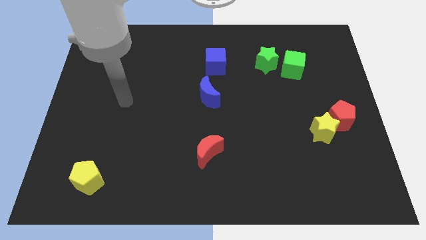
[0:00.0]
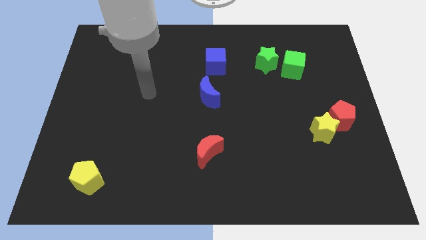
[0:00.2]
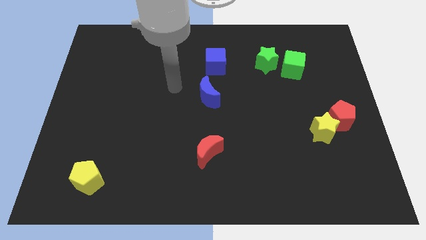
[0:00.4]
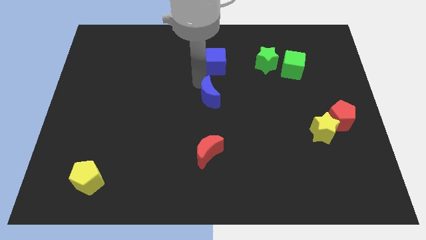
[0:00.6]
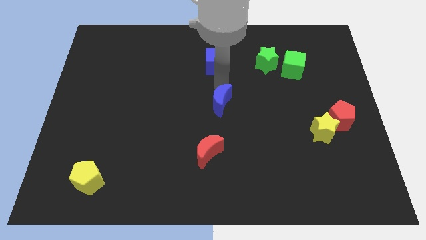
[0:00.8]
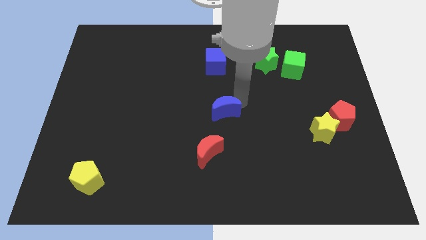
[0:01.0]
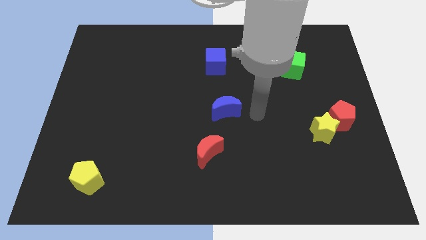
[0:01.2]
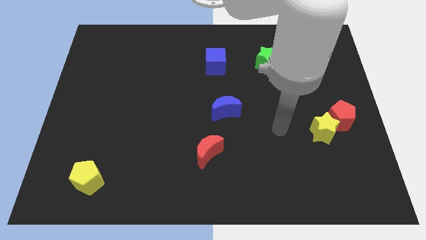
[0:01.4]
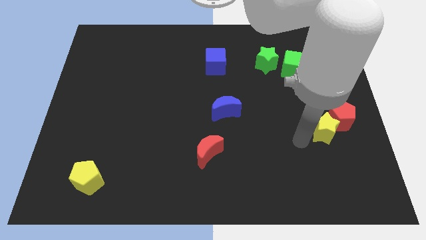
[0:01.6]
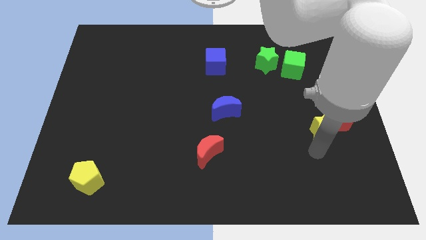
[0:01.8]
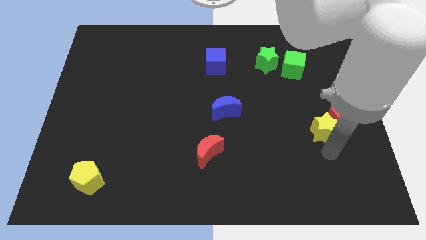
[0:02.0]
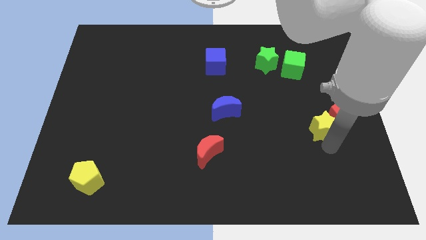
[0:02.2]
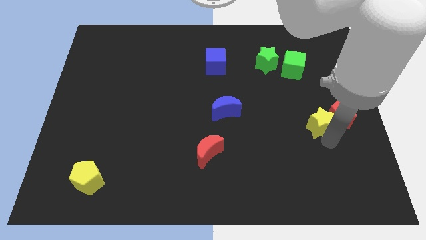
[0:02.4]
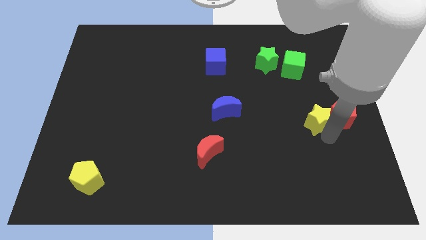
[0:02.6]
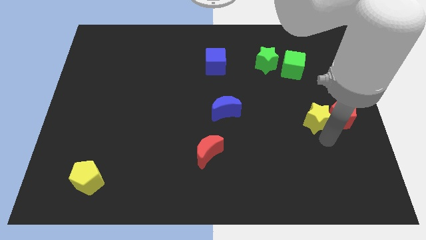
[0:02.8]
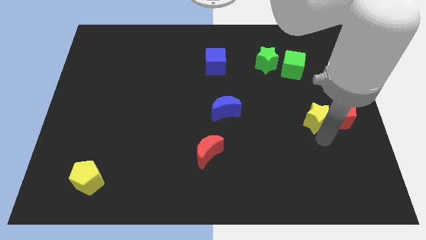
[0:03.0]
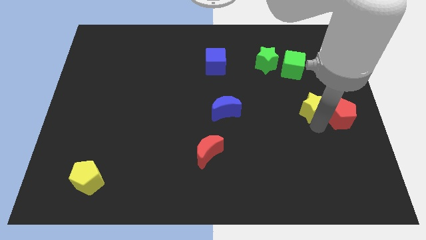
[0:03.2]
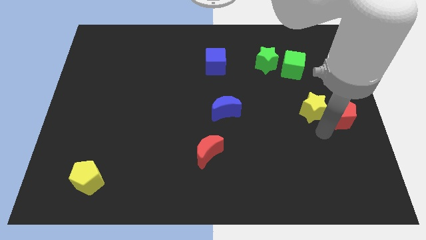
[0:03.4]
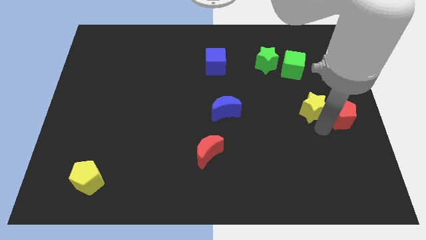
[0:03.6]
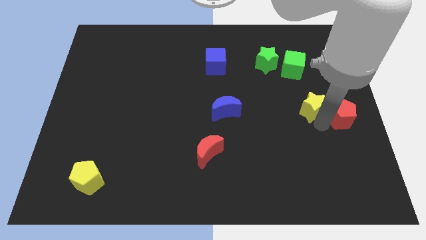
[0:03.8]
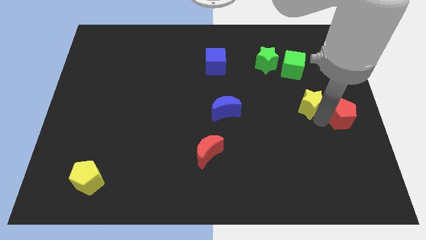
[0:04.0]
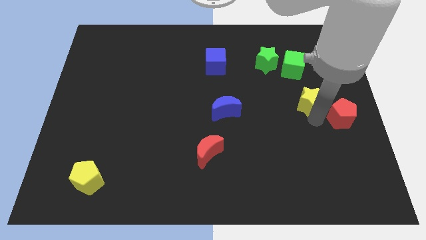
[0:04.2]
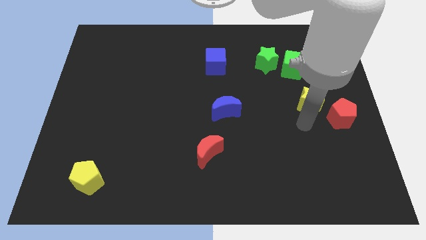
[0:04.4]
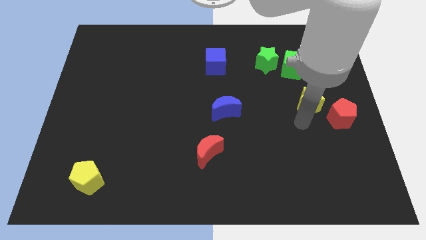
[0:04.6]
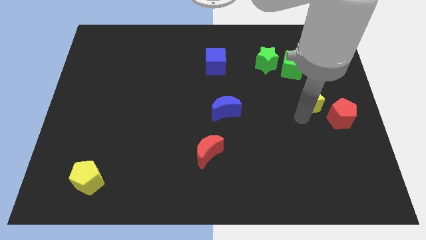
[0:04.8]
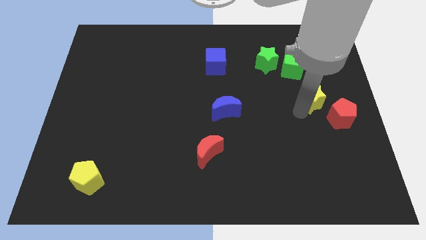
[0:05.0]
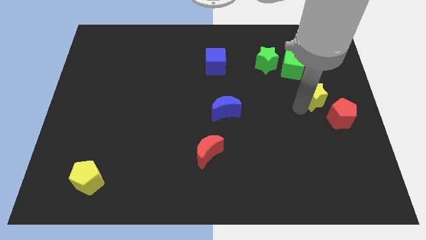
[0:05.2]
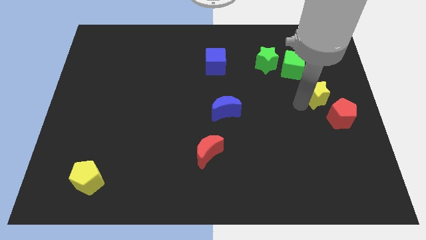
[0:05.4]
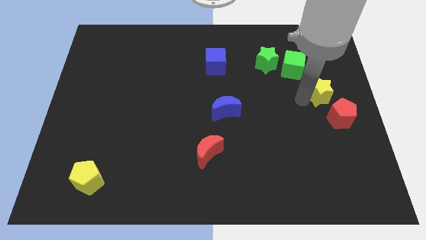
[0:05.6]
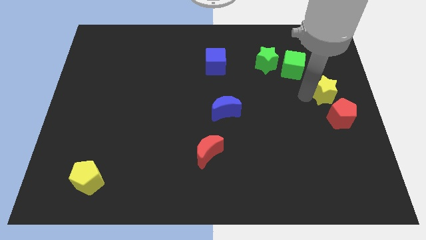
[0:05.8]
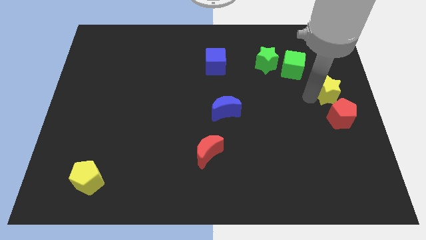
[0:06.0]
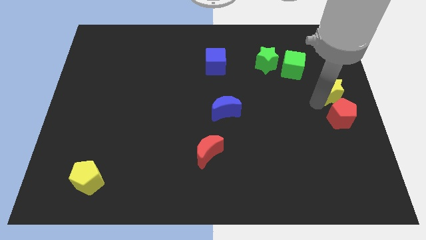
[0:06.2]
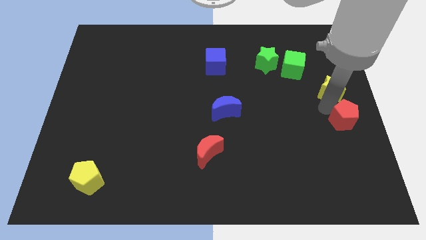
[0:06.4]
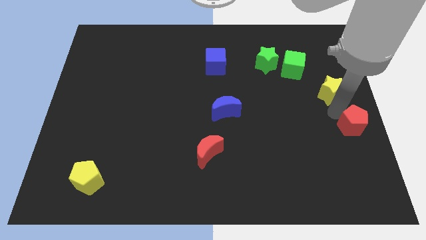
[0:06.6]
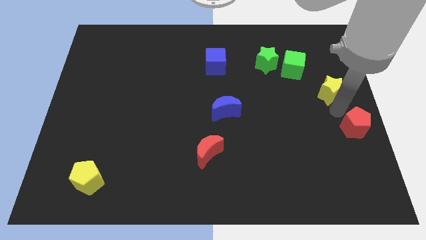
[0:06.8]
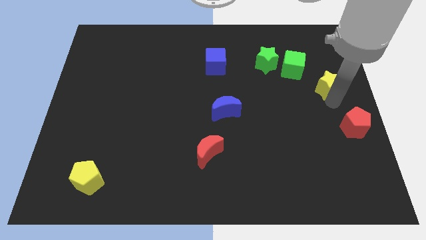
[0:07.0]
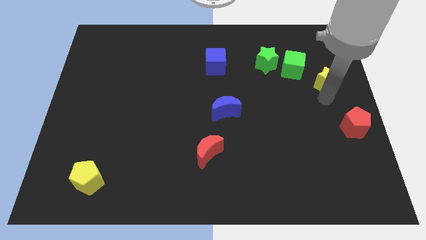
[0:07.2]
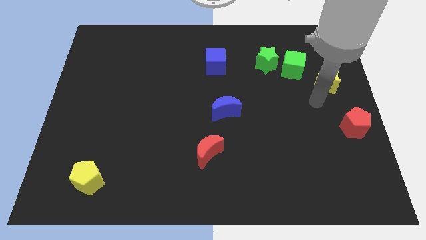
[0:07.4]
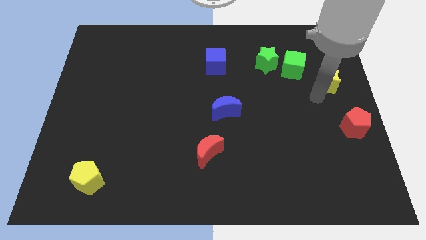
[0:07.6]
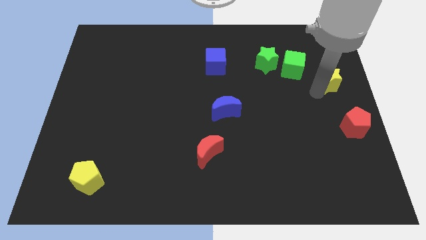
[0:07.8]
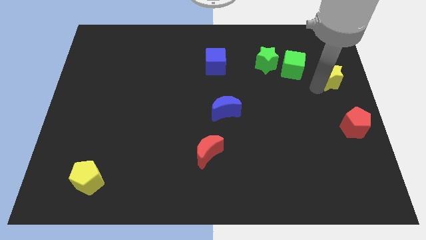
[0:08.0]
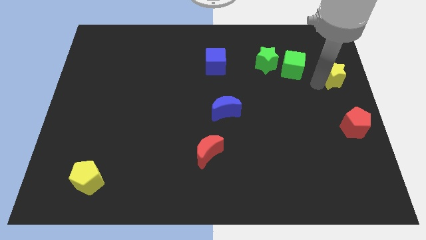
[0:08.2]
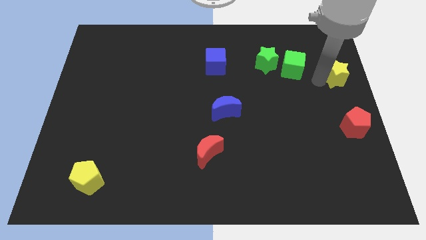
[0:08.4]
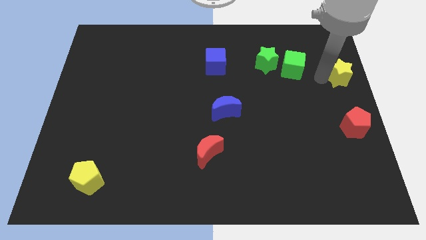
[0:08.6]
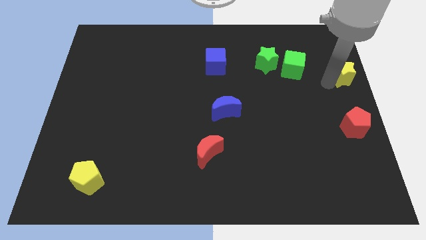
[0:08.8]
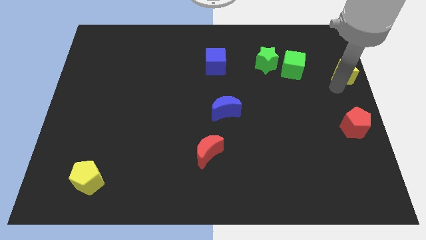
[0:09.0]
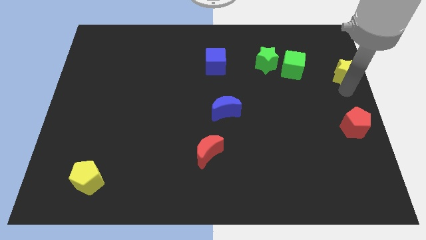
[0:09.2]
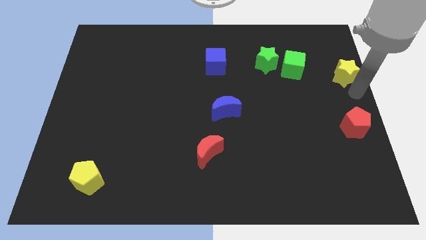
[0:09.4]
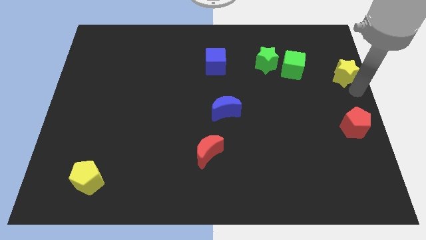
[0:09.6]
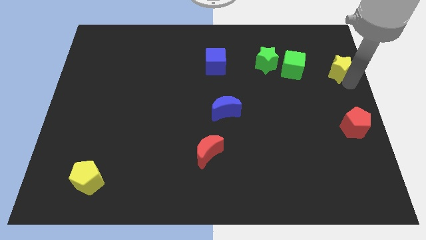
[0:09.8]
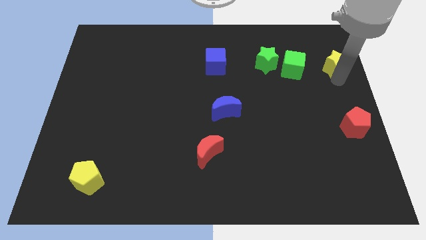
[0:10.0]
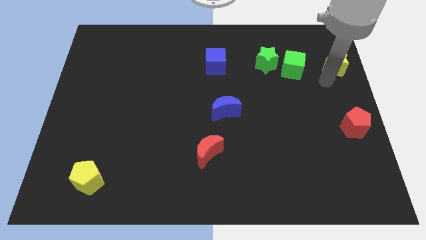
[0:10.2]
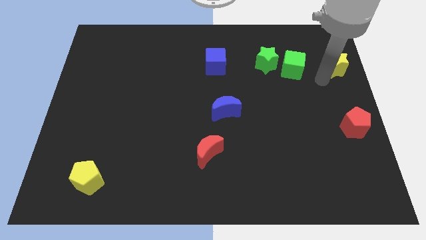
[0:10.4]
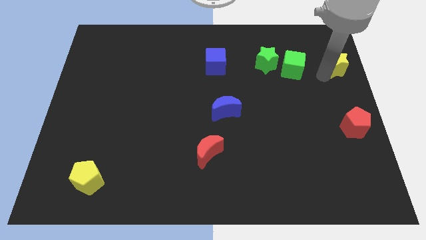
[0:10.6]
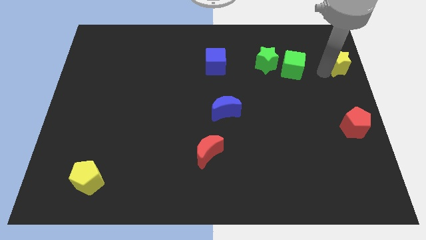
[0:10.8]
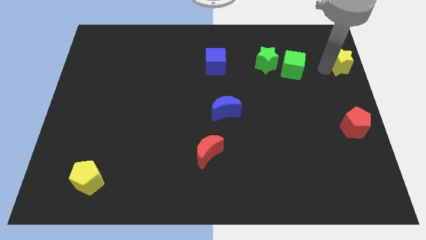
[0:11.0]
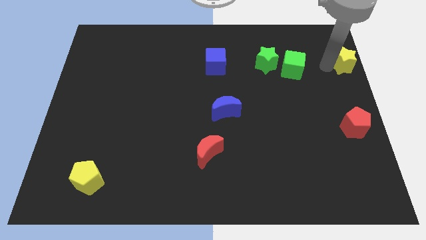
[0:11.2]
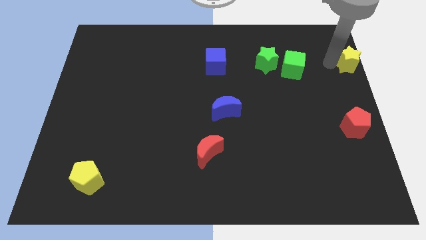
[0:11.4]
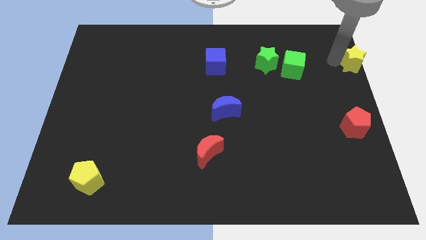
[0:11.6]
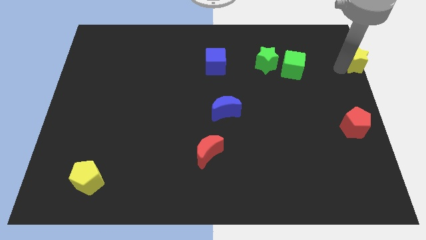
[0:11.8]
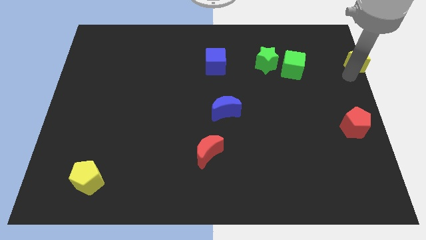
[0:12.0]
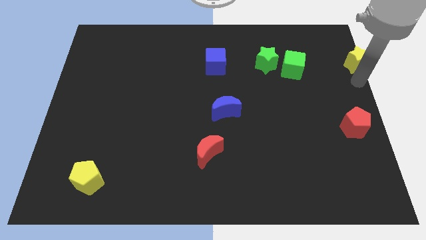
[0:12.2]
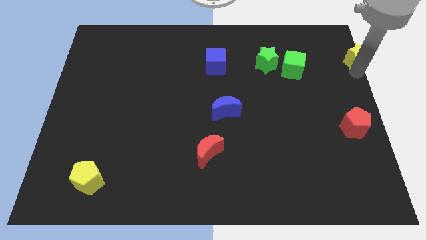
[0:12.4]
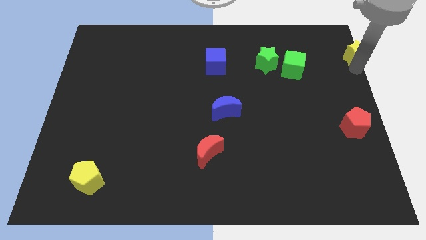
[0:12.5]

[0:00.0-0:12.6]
slide the yellow star to the top right

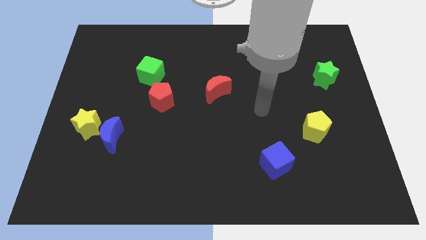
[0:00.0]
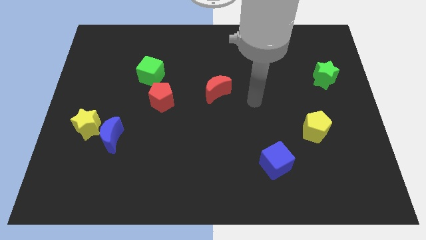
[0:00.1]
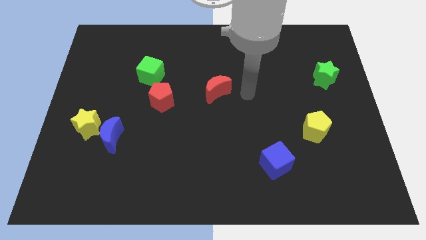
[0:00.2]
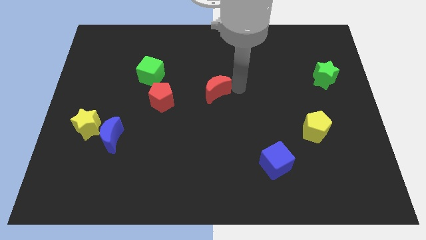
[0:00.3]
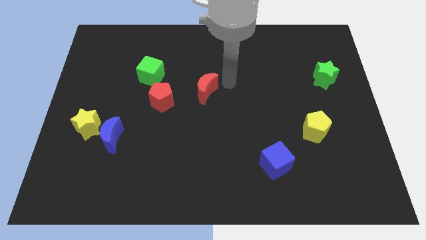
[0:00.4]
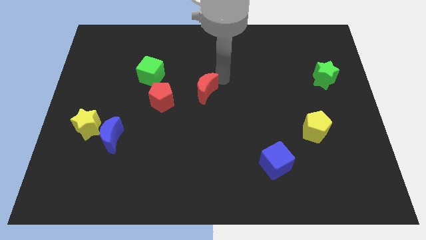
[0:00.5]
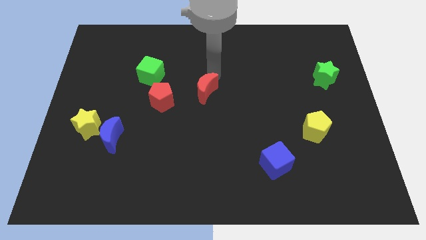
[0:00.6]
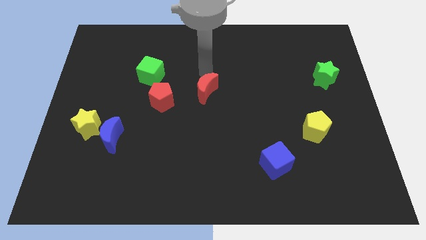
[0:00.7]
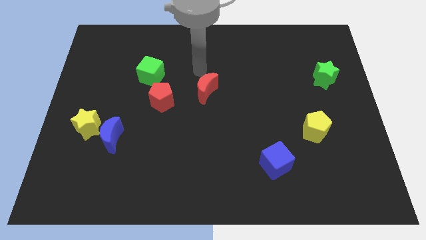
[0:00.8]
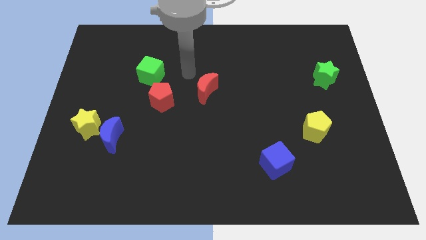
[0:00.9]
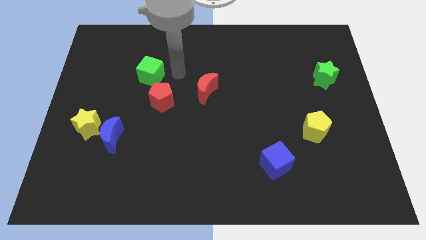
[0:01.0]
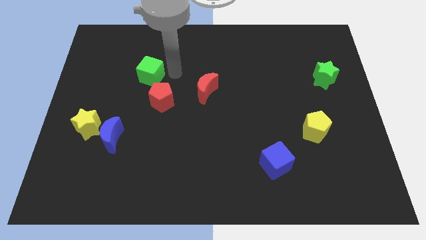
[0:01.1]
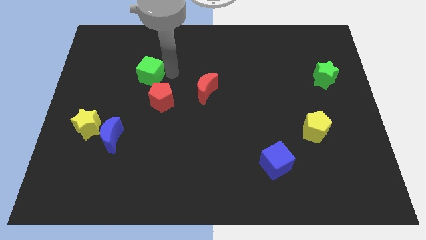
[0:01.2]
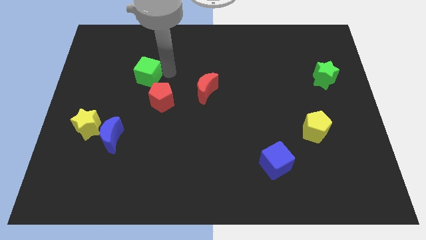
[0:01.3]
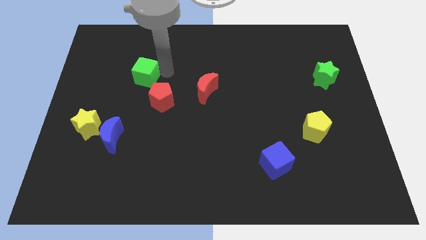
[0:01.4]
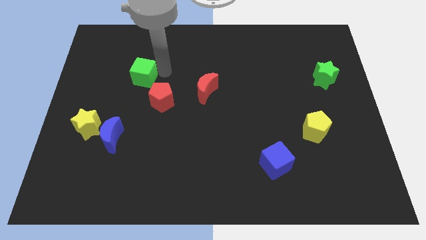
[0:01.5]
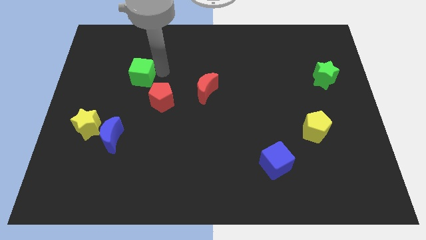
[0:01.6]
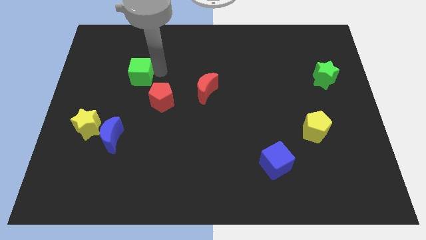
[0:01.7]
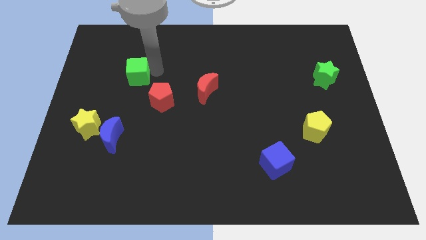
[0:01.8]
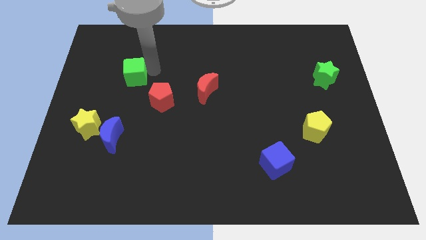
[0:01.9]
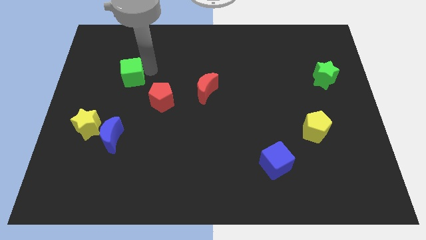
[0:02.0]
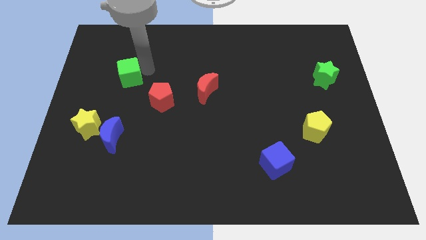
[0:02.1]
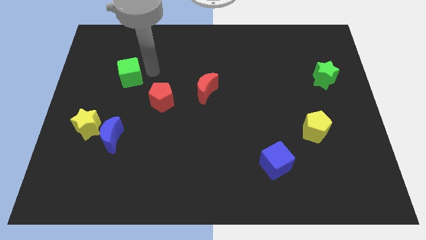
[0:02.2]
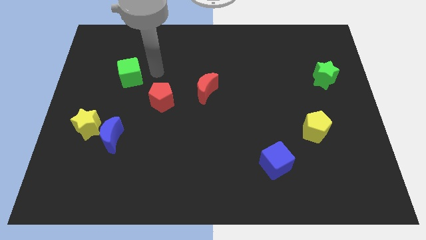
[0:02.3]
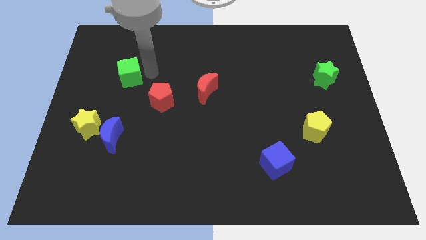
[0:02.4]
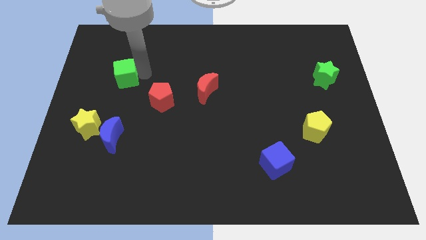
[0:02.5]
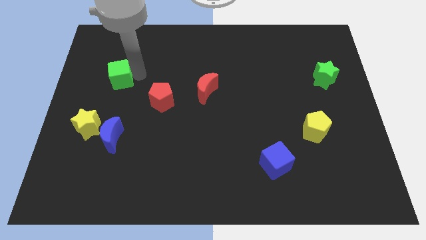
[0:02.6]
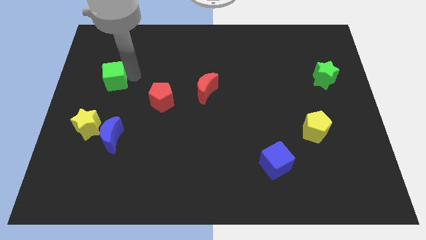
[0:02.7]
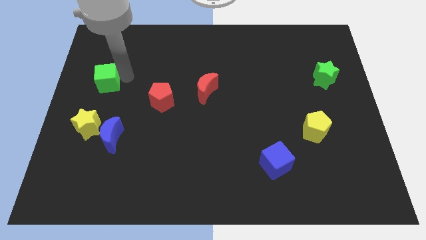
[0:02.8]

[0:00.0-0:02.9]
slide the green cube to the center left
